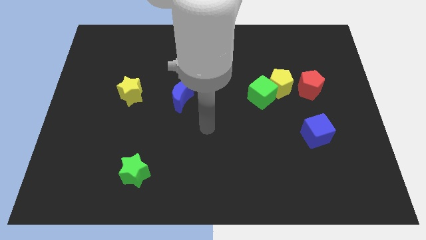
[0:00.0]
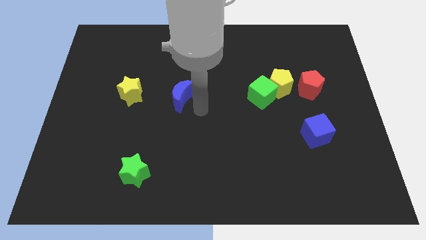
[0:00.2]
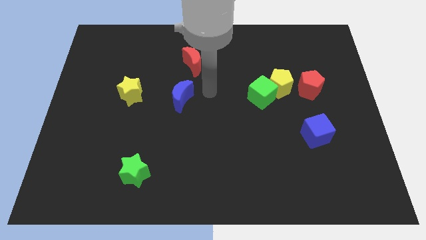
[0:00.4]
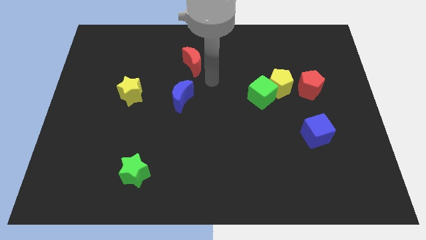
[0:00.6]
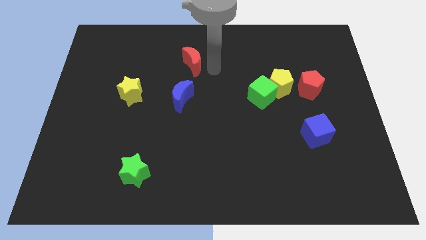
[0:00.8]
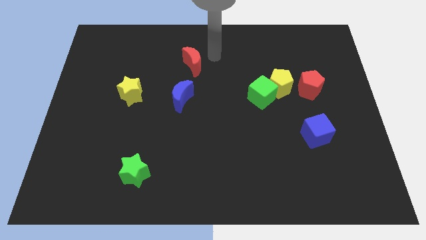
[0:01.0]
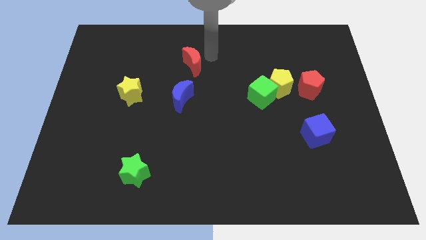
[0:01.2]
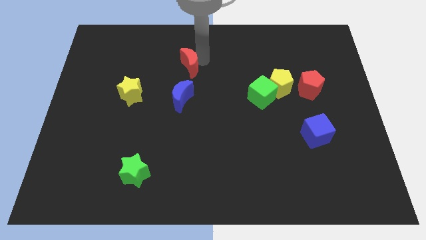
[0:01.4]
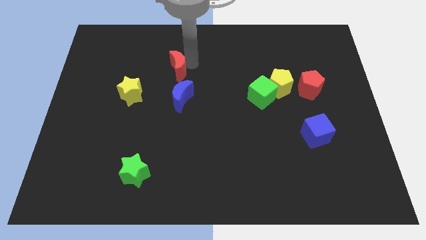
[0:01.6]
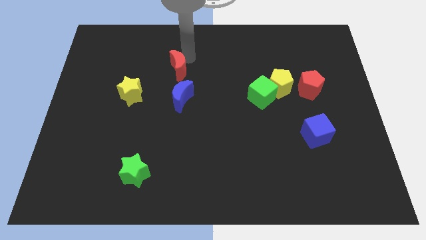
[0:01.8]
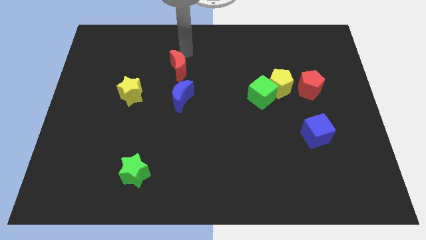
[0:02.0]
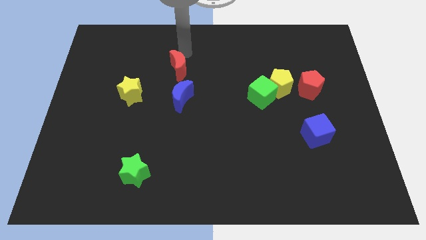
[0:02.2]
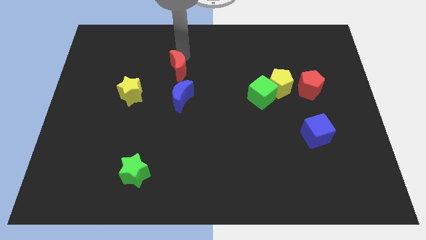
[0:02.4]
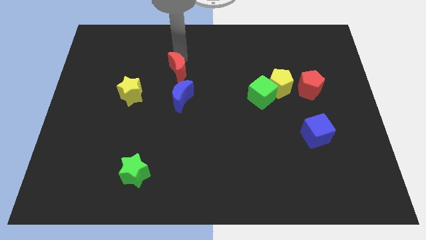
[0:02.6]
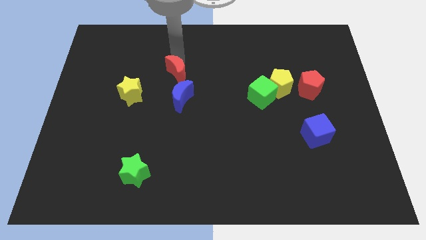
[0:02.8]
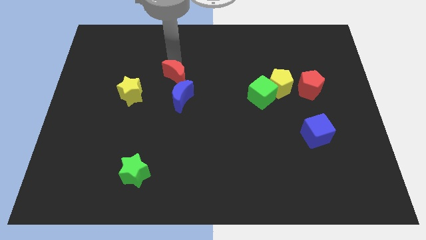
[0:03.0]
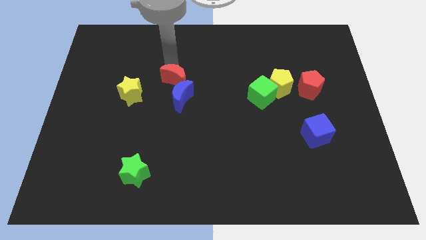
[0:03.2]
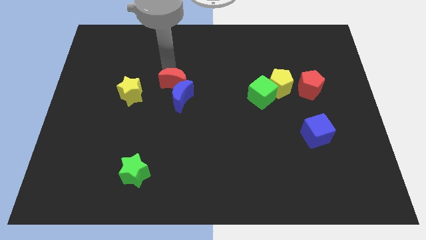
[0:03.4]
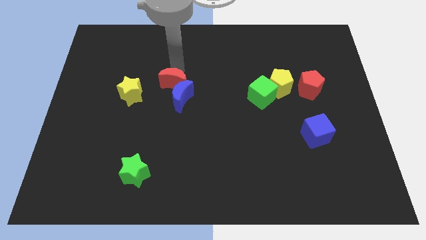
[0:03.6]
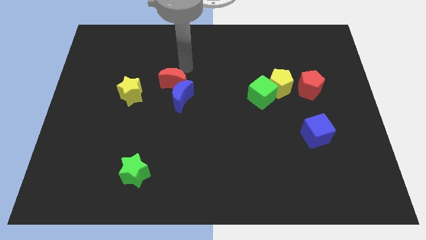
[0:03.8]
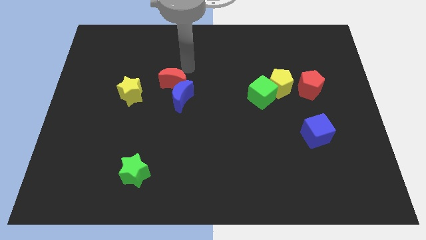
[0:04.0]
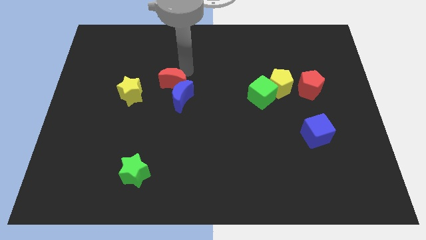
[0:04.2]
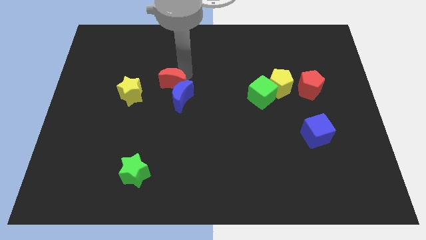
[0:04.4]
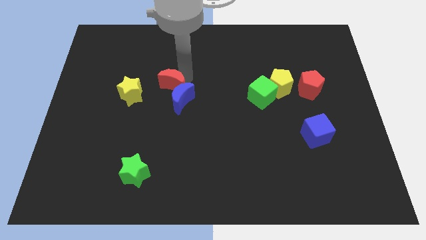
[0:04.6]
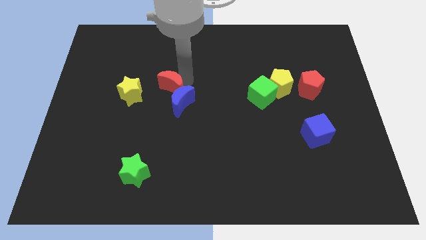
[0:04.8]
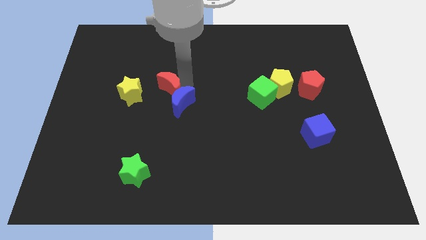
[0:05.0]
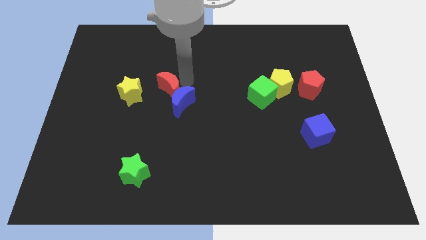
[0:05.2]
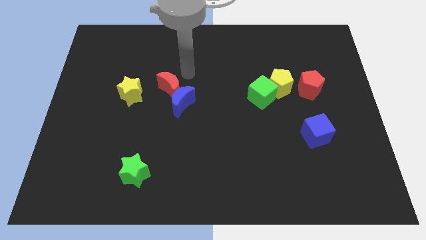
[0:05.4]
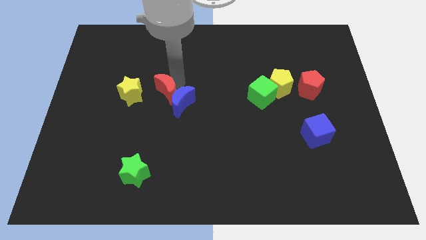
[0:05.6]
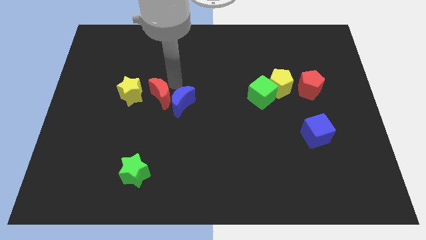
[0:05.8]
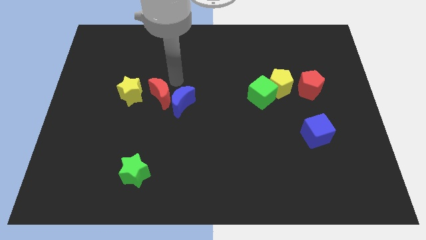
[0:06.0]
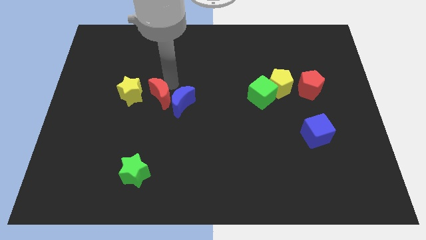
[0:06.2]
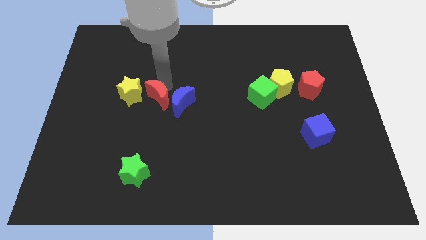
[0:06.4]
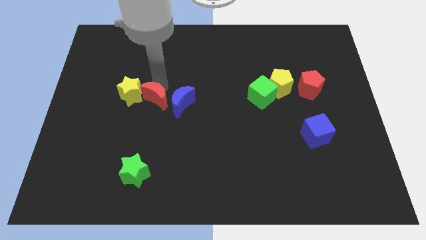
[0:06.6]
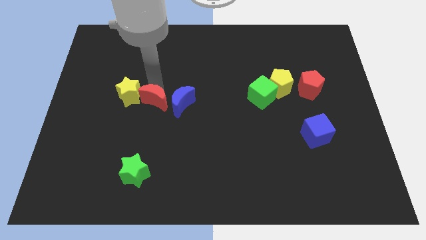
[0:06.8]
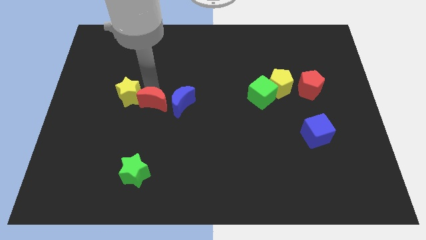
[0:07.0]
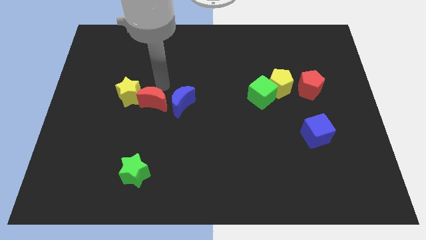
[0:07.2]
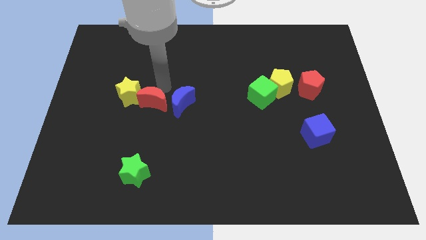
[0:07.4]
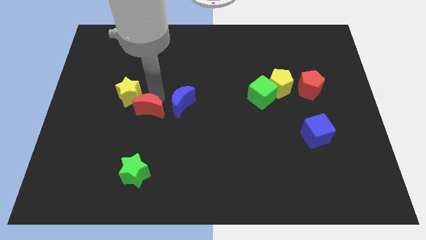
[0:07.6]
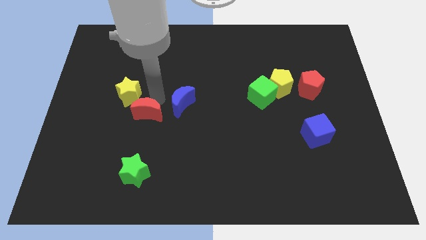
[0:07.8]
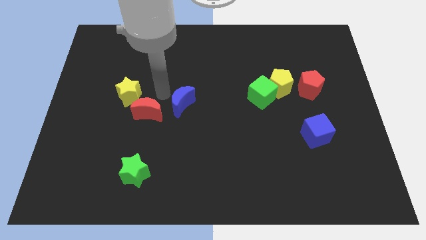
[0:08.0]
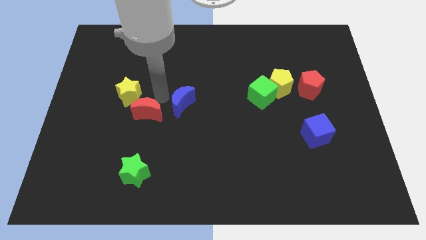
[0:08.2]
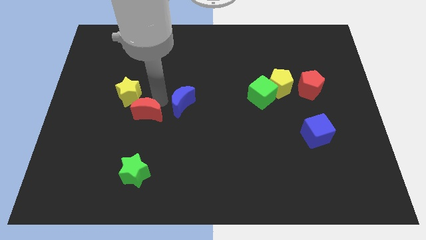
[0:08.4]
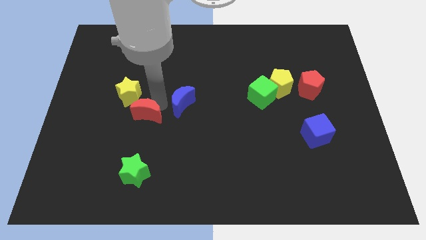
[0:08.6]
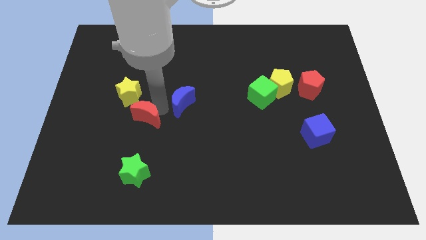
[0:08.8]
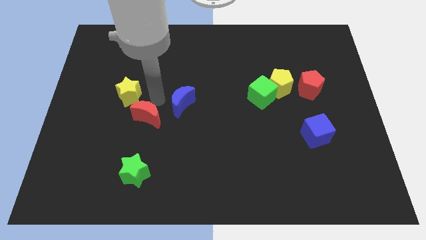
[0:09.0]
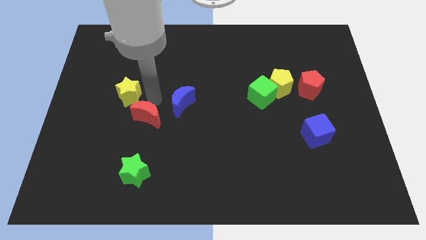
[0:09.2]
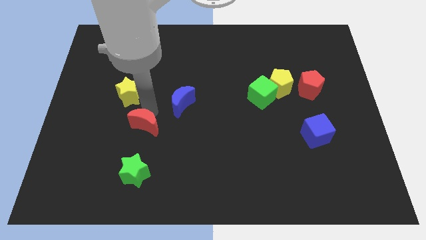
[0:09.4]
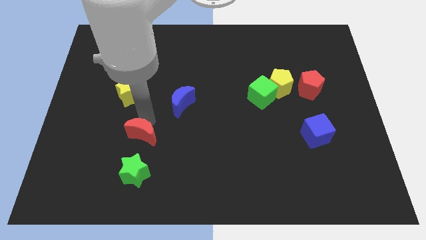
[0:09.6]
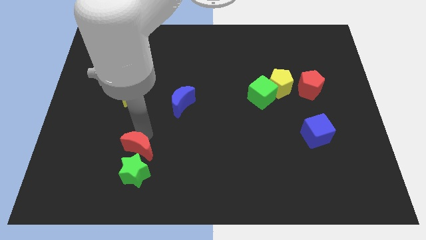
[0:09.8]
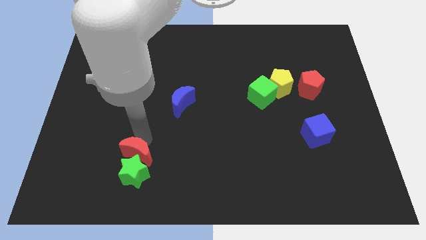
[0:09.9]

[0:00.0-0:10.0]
push the red moon towards the green star

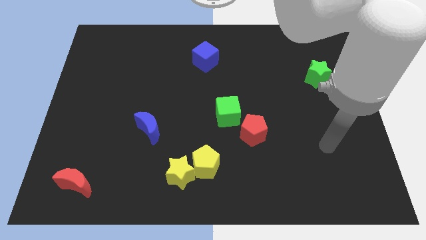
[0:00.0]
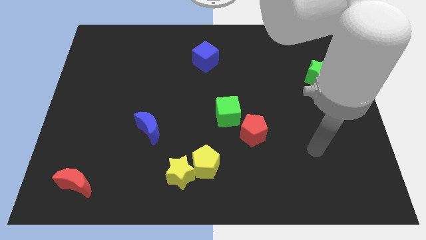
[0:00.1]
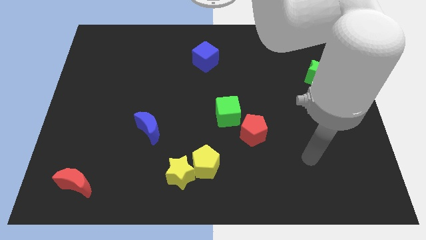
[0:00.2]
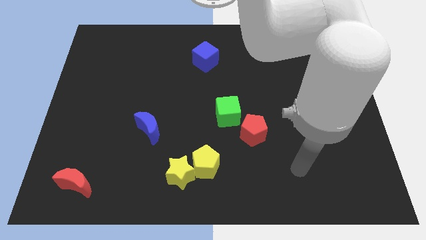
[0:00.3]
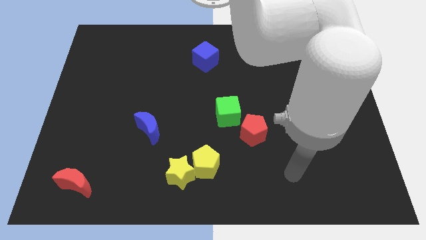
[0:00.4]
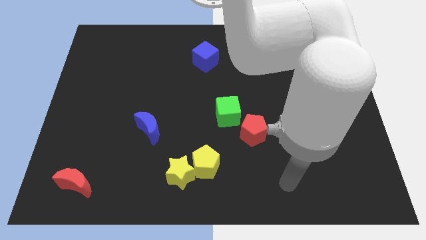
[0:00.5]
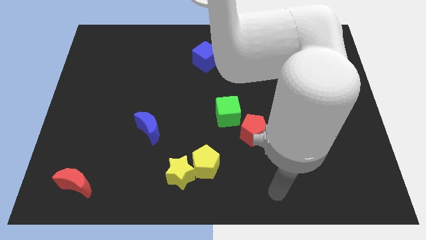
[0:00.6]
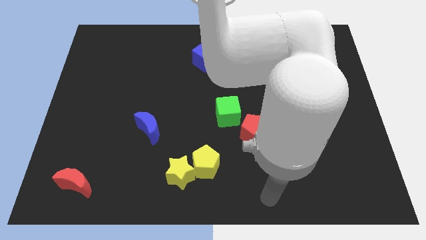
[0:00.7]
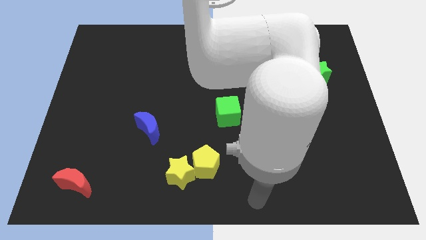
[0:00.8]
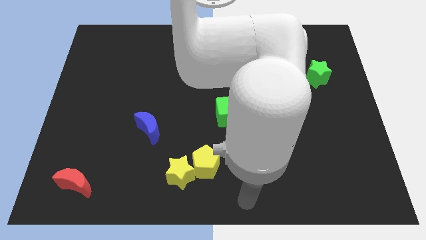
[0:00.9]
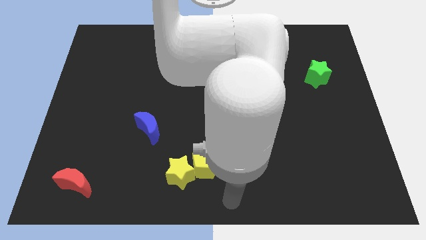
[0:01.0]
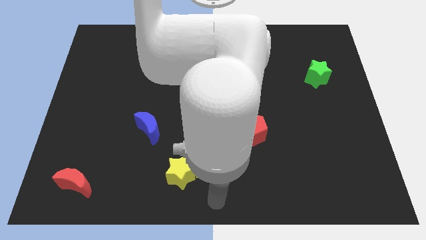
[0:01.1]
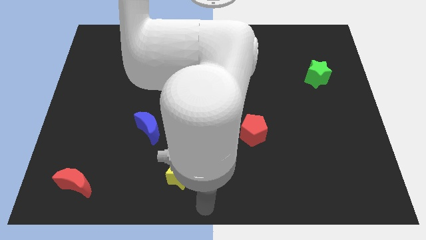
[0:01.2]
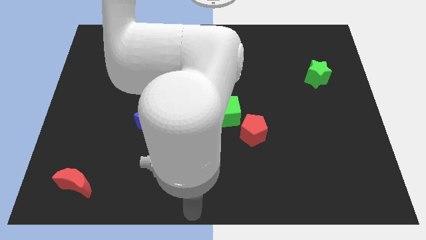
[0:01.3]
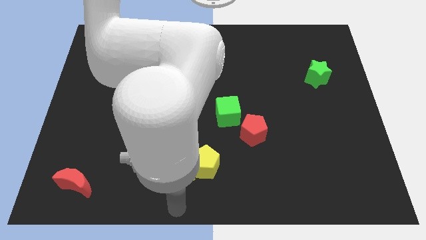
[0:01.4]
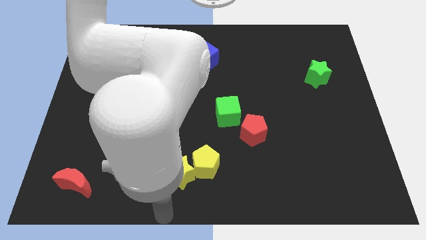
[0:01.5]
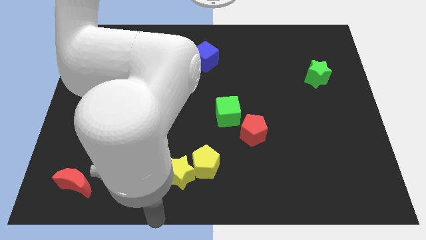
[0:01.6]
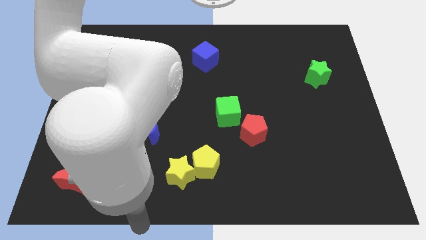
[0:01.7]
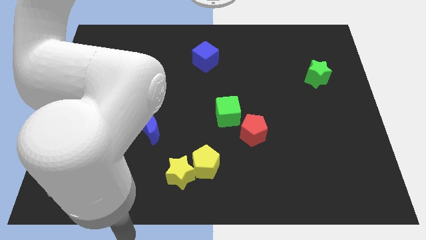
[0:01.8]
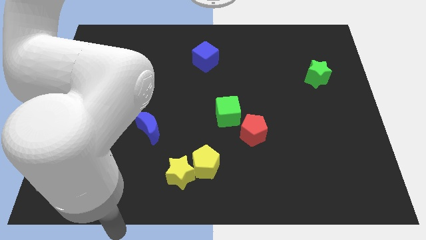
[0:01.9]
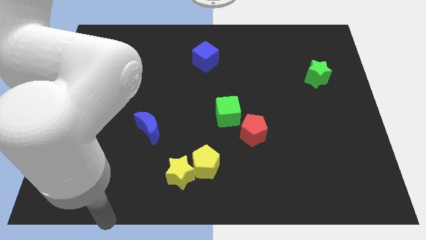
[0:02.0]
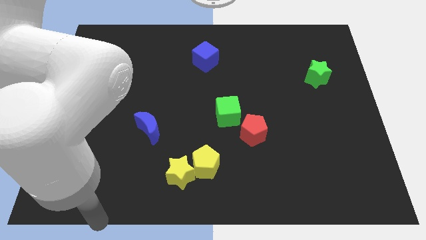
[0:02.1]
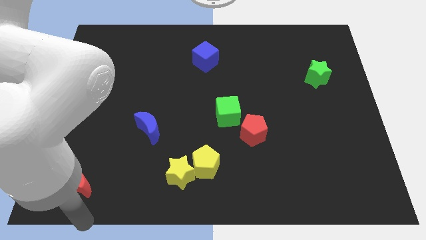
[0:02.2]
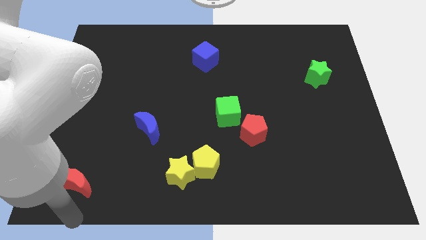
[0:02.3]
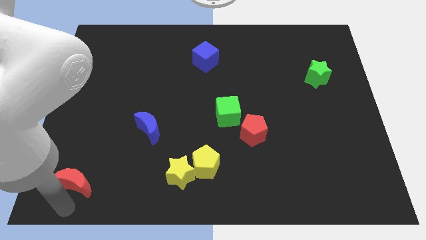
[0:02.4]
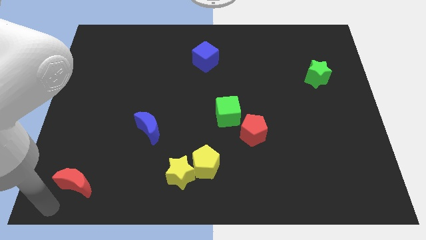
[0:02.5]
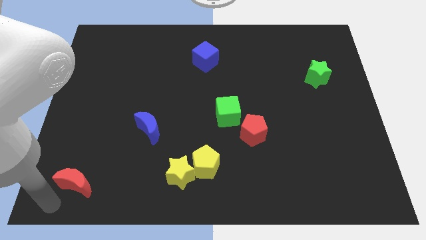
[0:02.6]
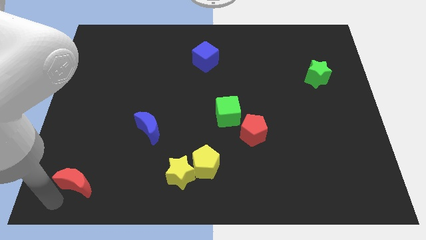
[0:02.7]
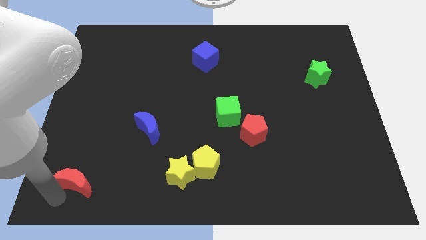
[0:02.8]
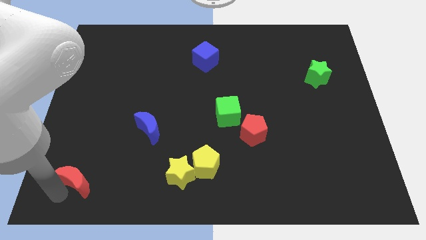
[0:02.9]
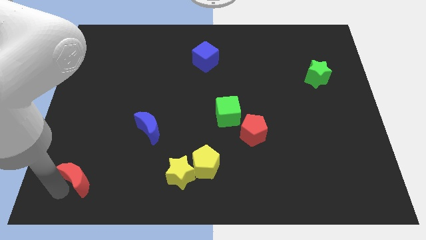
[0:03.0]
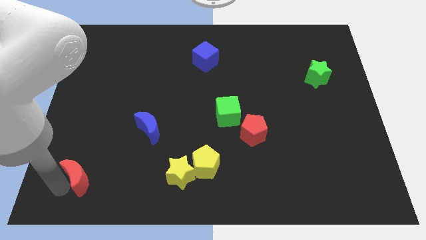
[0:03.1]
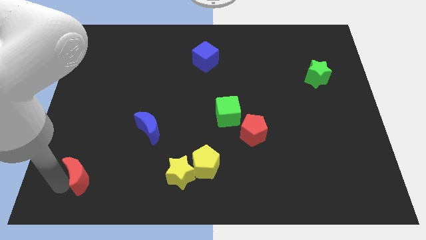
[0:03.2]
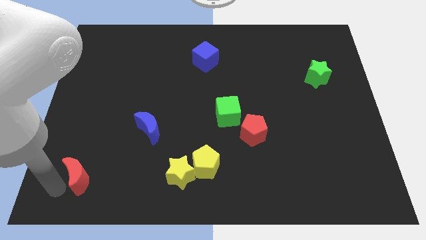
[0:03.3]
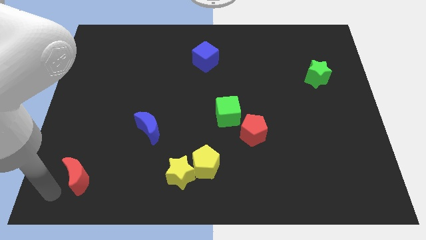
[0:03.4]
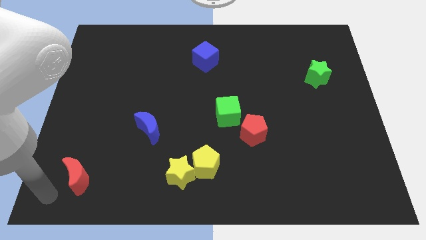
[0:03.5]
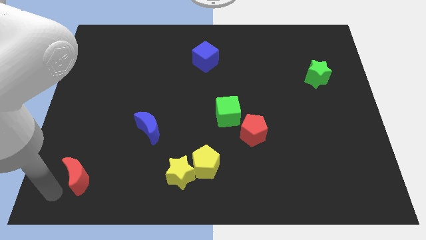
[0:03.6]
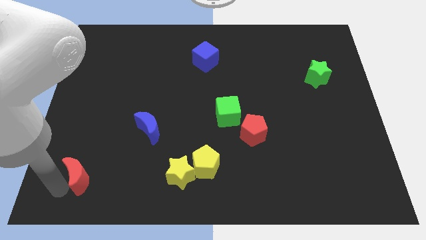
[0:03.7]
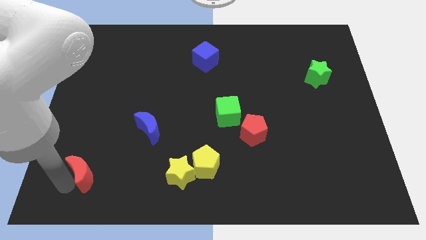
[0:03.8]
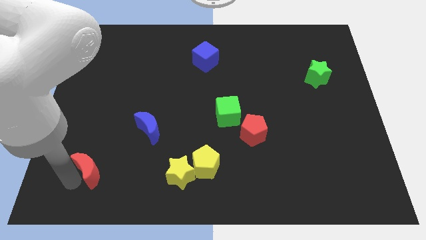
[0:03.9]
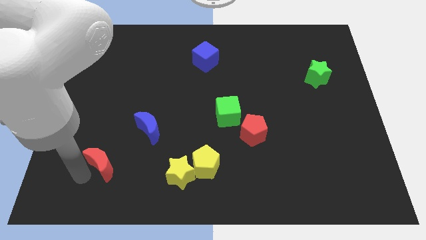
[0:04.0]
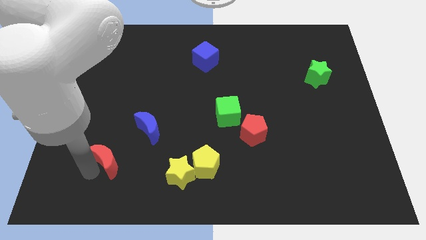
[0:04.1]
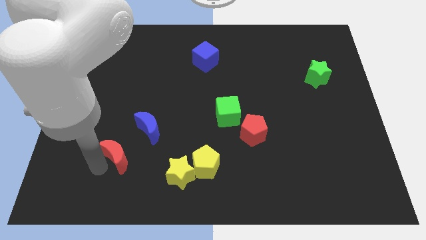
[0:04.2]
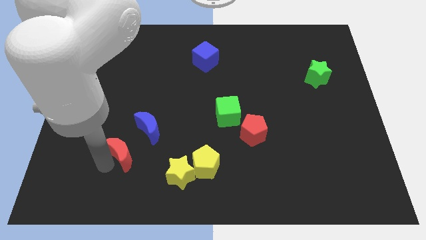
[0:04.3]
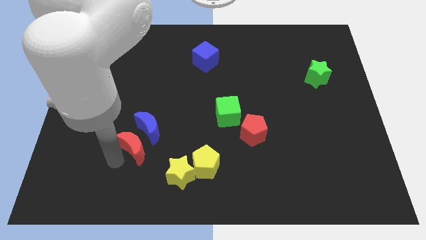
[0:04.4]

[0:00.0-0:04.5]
move the red moon towards the blue moon
